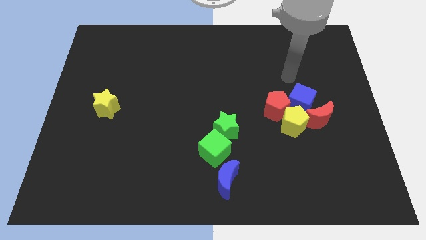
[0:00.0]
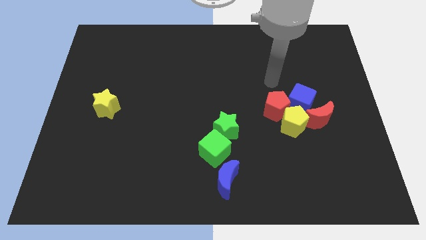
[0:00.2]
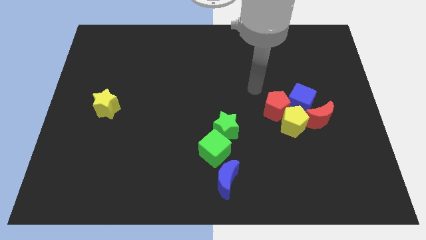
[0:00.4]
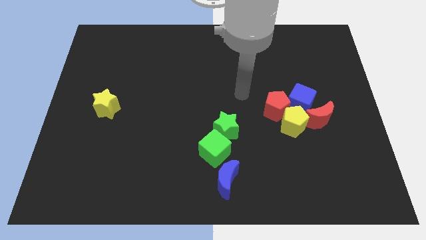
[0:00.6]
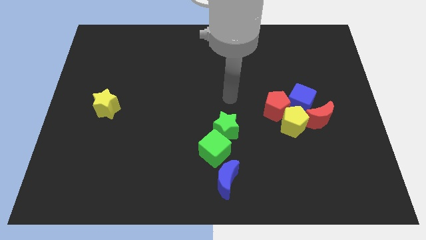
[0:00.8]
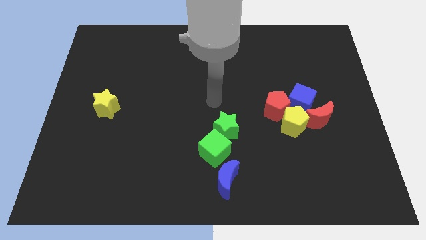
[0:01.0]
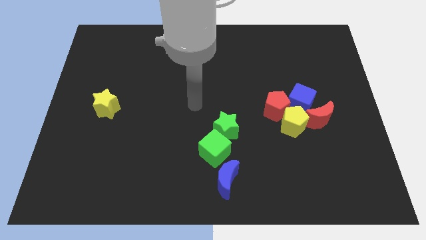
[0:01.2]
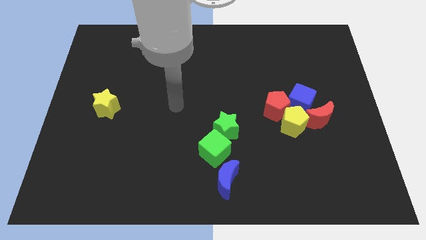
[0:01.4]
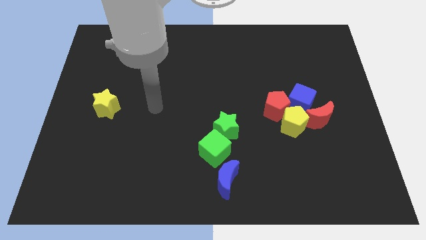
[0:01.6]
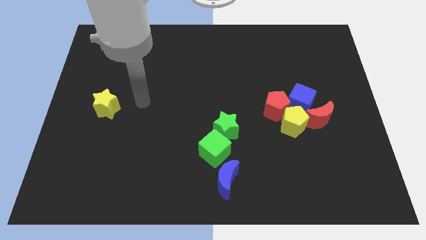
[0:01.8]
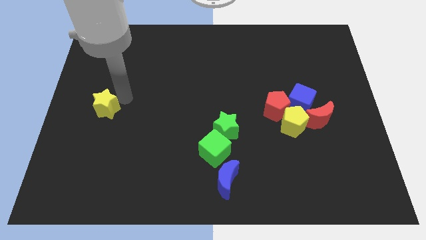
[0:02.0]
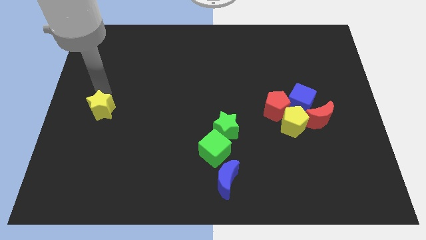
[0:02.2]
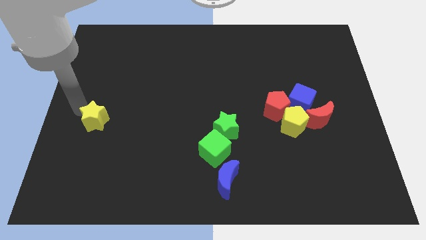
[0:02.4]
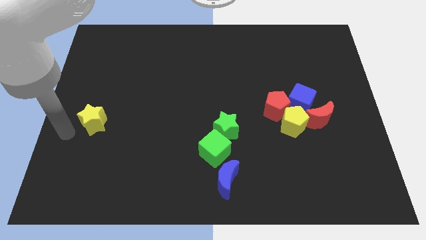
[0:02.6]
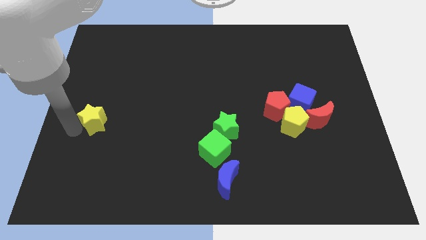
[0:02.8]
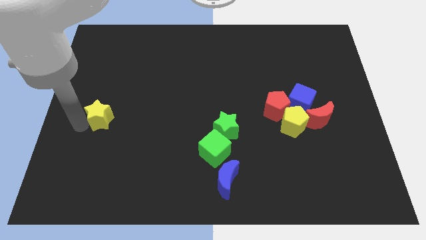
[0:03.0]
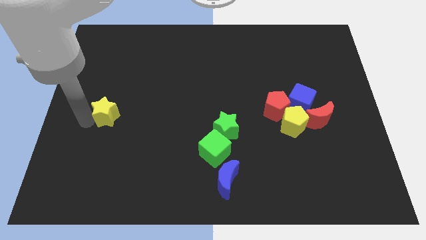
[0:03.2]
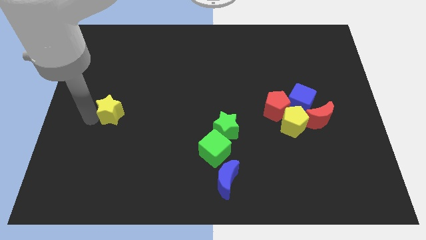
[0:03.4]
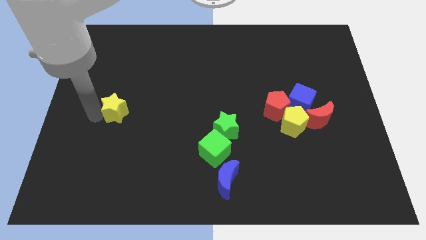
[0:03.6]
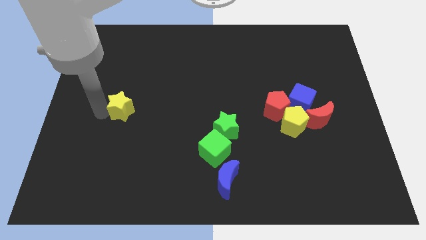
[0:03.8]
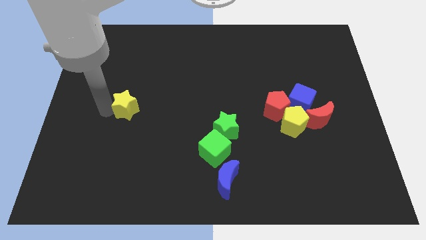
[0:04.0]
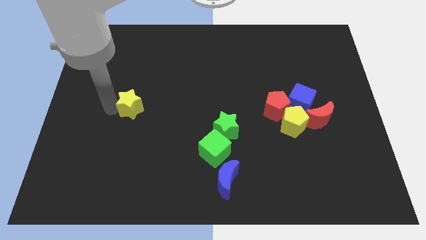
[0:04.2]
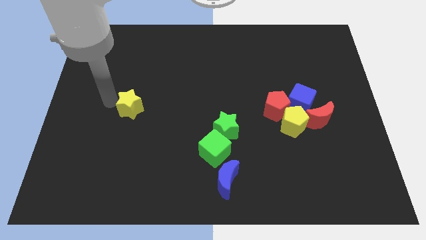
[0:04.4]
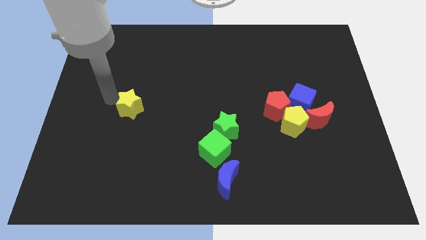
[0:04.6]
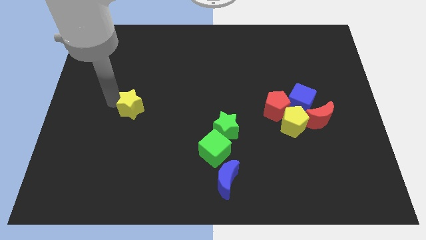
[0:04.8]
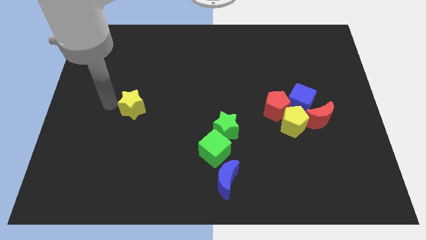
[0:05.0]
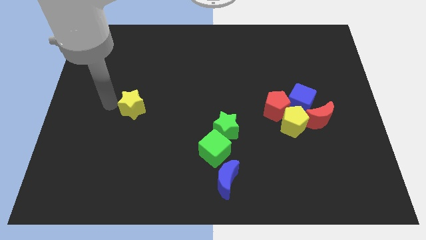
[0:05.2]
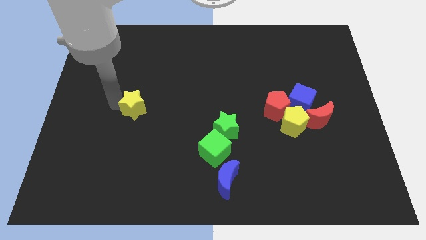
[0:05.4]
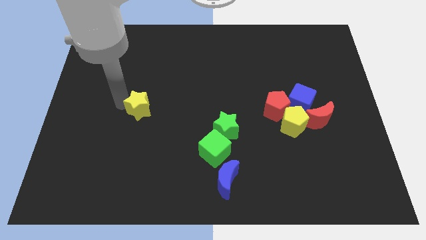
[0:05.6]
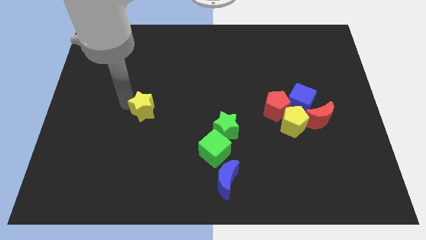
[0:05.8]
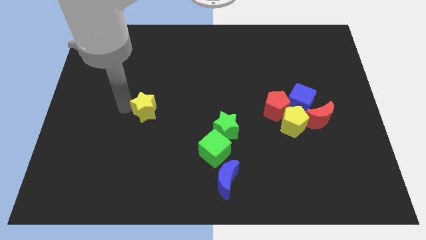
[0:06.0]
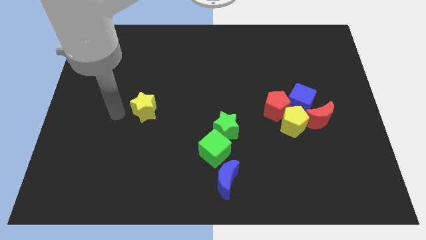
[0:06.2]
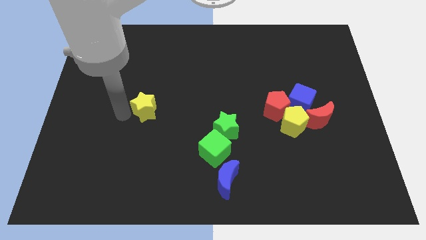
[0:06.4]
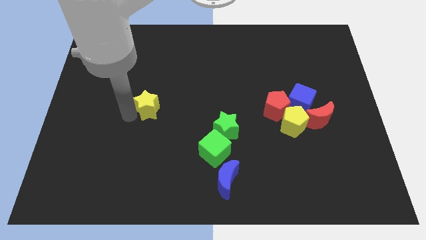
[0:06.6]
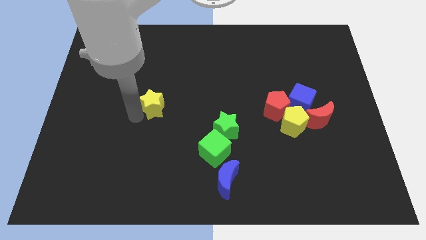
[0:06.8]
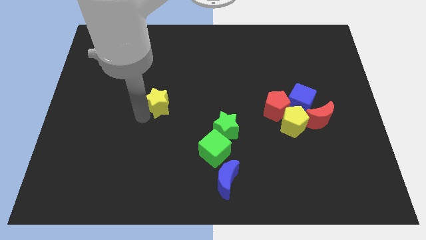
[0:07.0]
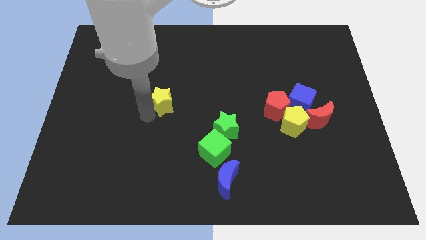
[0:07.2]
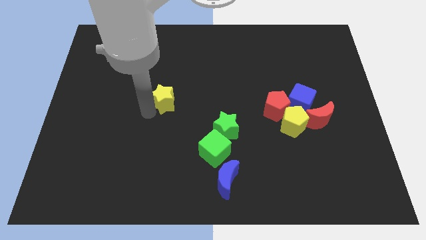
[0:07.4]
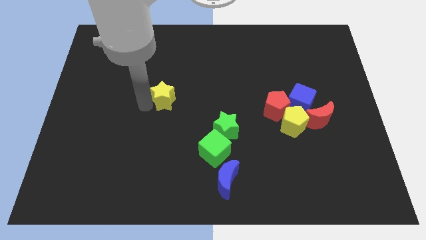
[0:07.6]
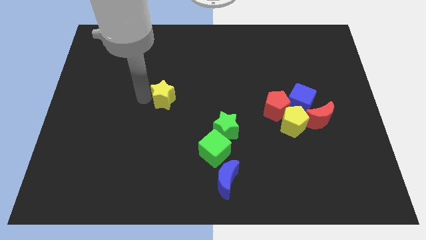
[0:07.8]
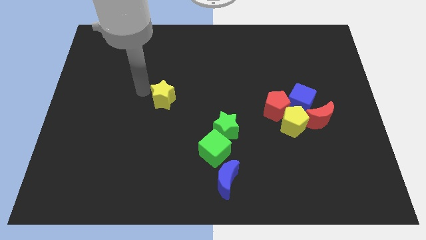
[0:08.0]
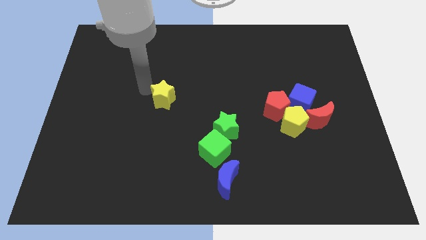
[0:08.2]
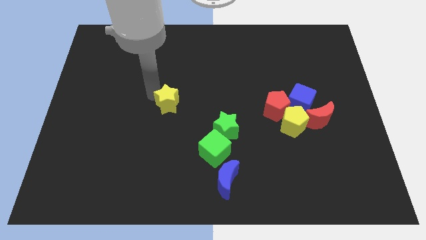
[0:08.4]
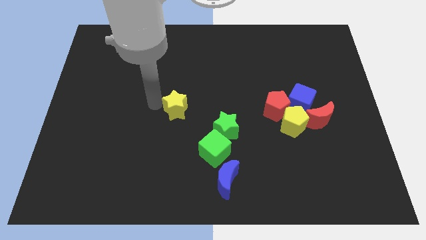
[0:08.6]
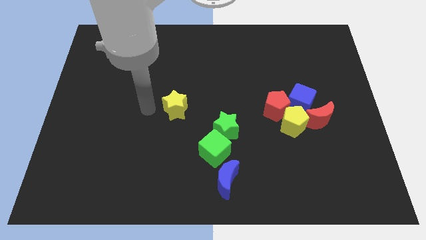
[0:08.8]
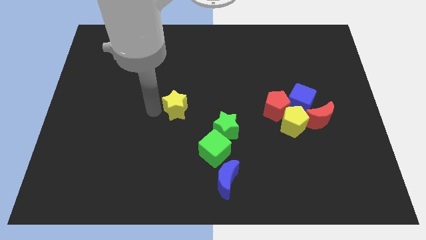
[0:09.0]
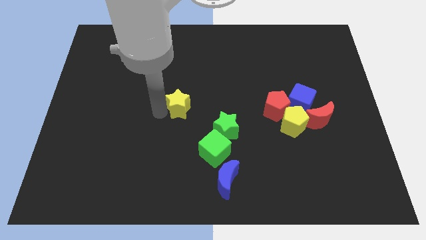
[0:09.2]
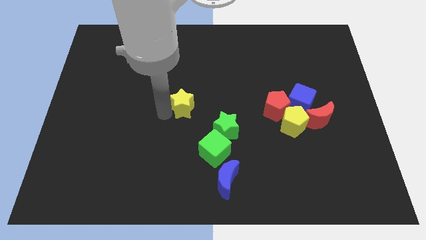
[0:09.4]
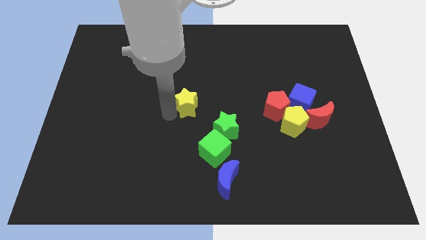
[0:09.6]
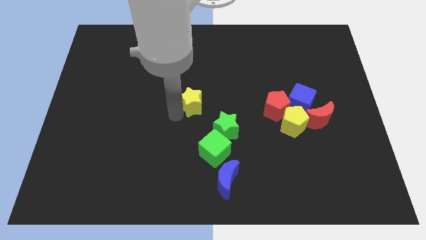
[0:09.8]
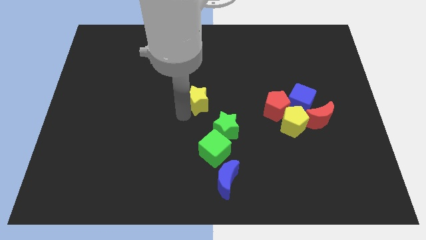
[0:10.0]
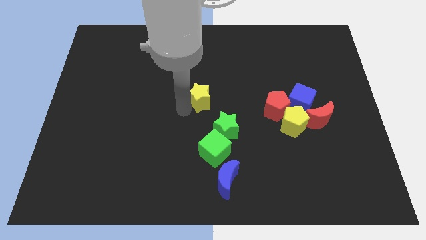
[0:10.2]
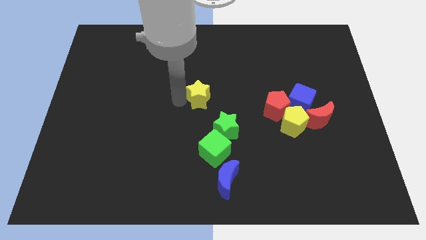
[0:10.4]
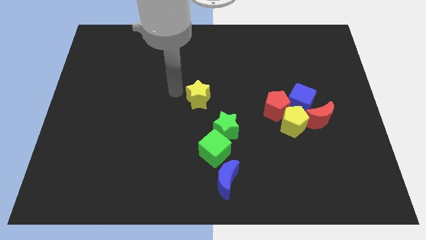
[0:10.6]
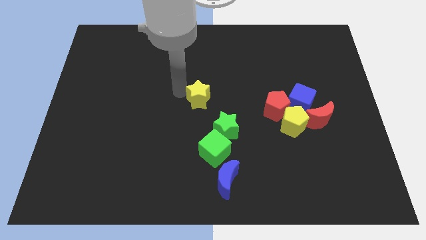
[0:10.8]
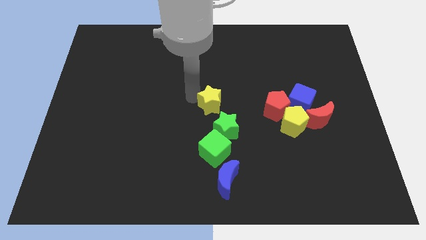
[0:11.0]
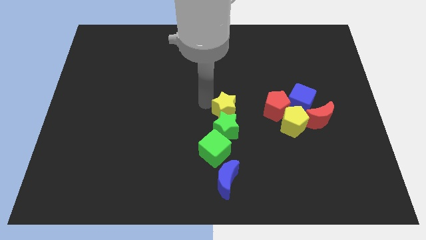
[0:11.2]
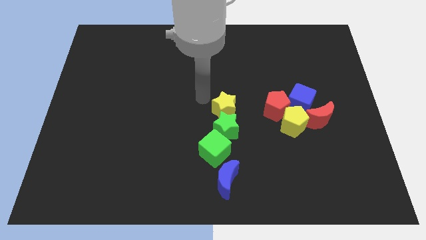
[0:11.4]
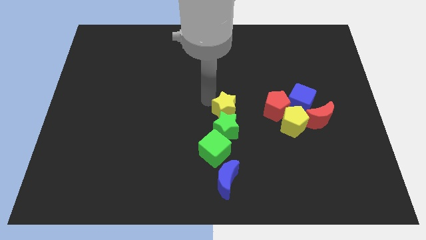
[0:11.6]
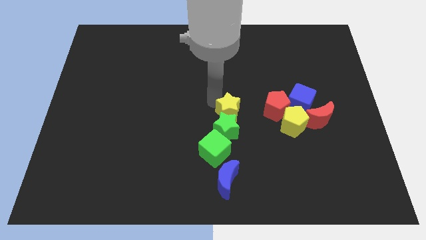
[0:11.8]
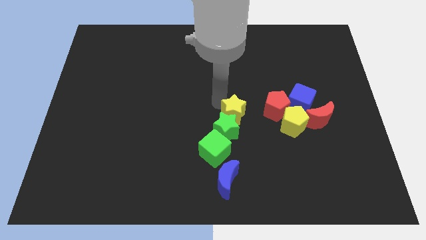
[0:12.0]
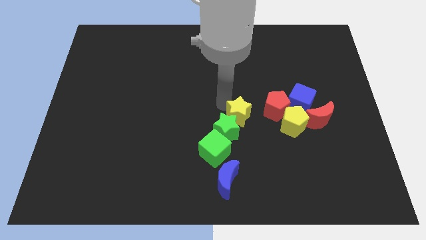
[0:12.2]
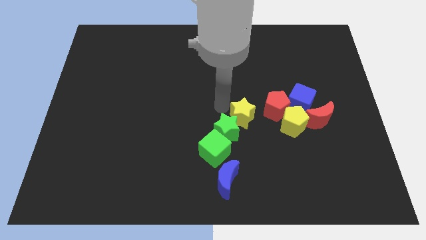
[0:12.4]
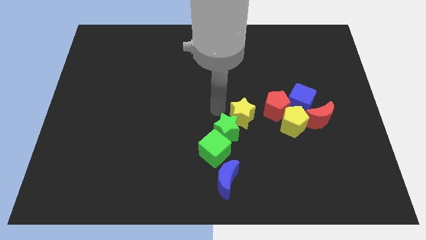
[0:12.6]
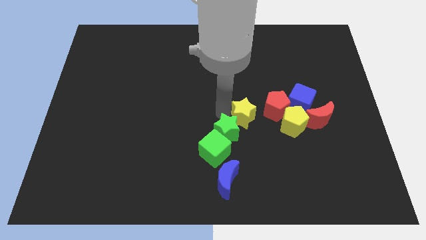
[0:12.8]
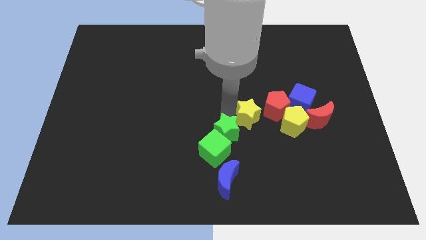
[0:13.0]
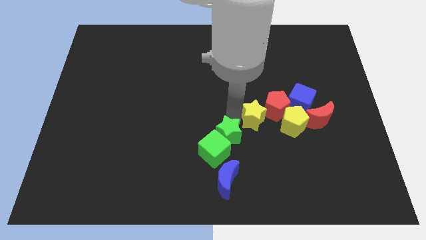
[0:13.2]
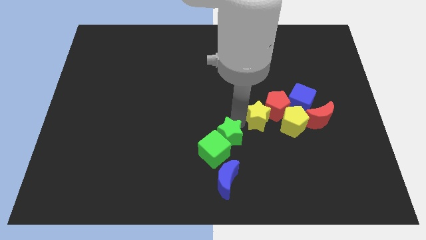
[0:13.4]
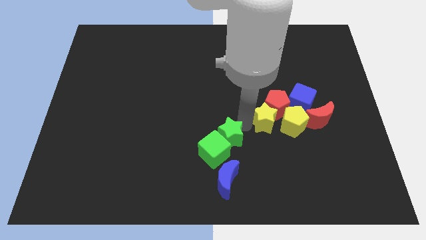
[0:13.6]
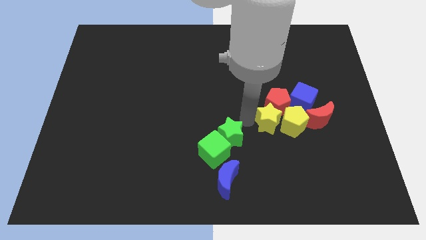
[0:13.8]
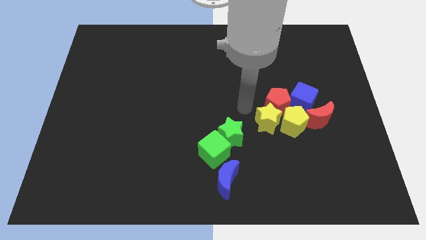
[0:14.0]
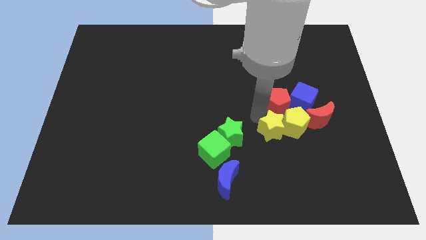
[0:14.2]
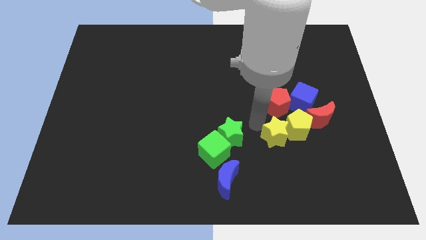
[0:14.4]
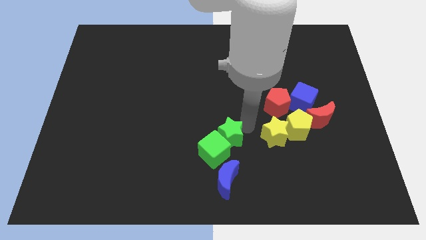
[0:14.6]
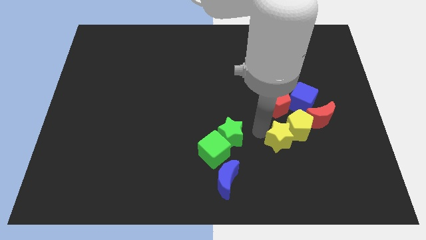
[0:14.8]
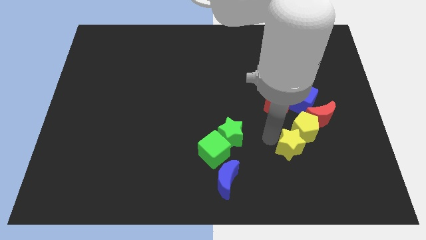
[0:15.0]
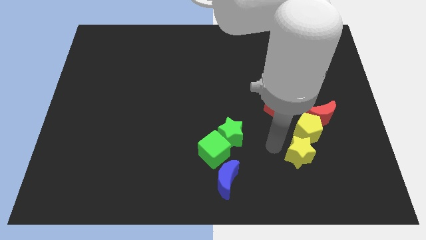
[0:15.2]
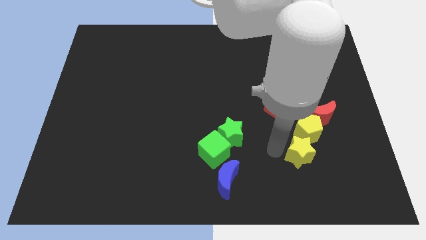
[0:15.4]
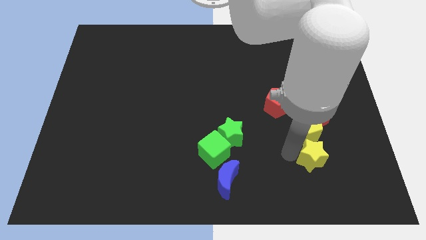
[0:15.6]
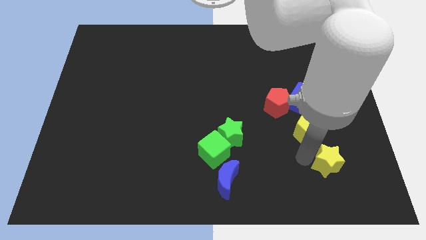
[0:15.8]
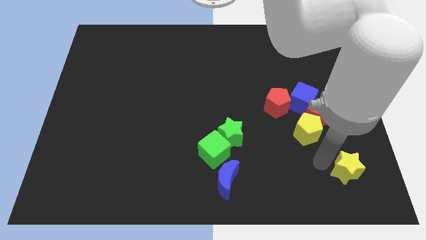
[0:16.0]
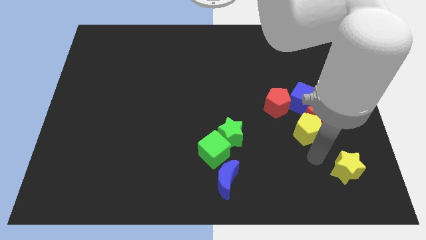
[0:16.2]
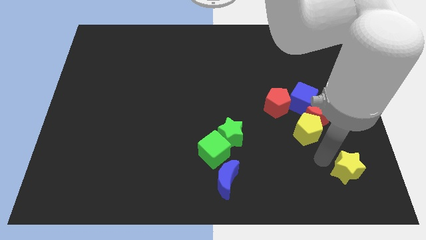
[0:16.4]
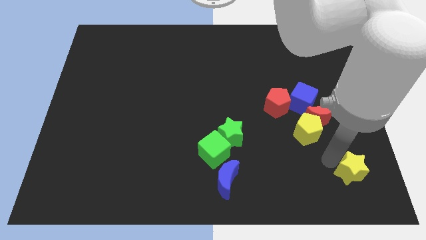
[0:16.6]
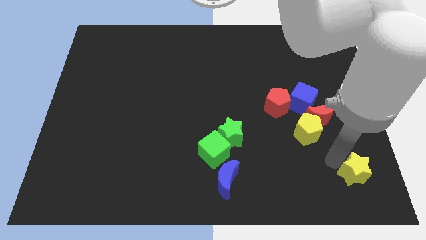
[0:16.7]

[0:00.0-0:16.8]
move the yellow star to the bottom right
